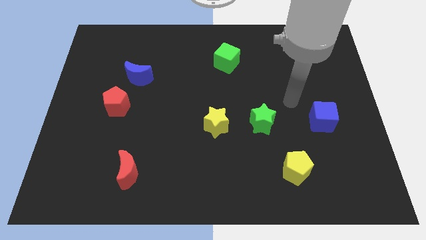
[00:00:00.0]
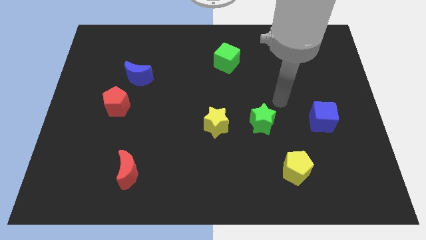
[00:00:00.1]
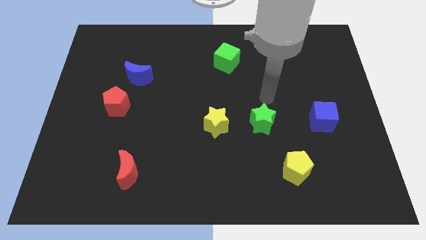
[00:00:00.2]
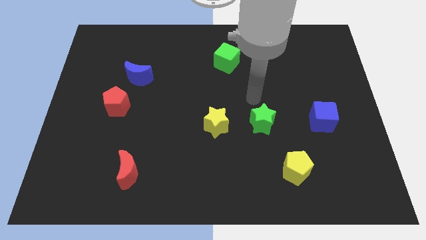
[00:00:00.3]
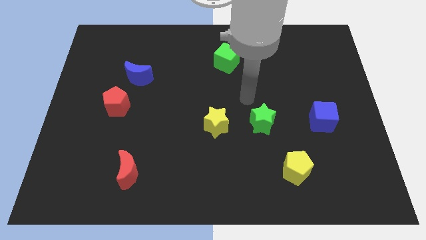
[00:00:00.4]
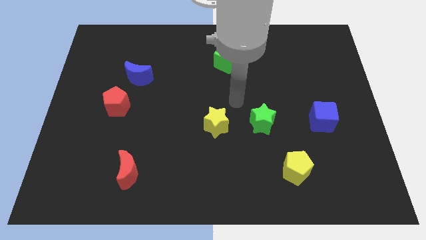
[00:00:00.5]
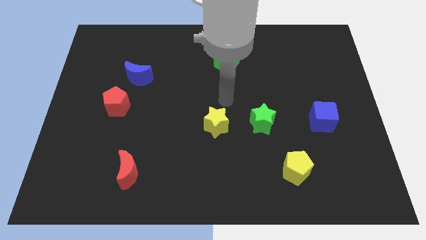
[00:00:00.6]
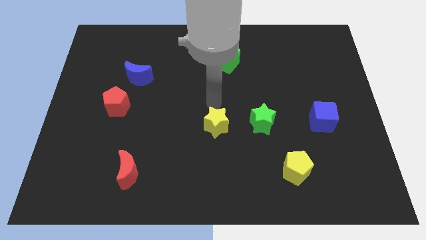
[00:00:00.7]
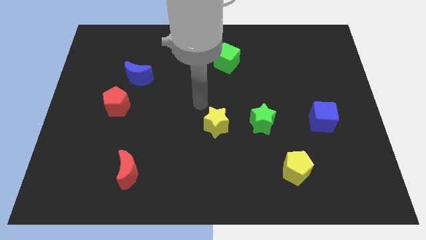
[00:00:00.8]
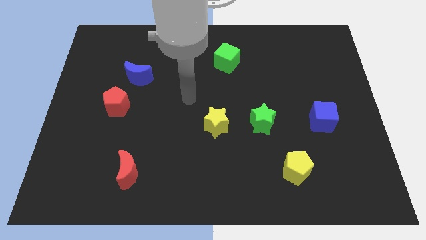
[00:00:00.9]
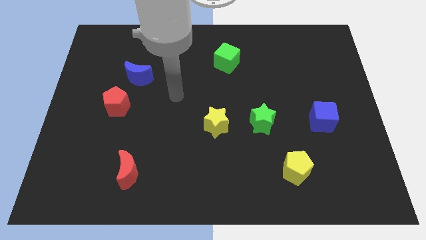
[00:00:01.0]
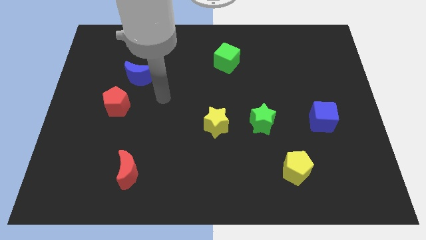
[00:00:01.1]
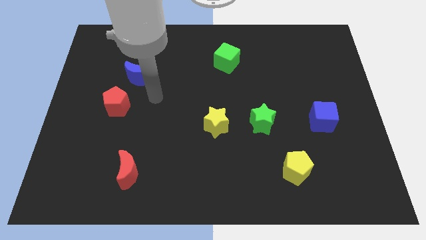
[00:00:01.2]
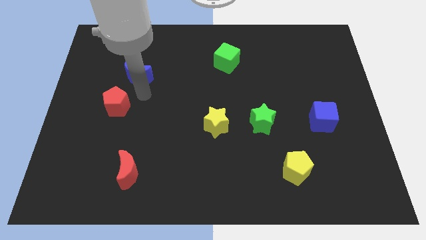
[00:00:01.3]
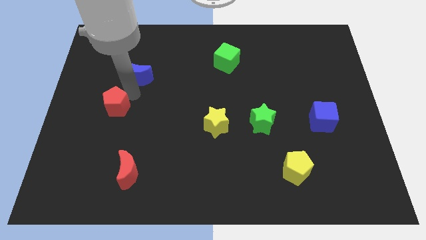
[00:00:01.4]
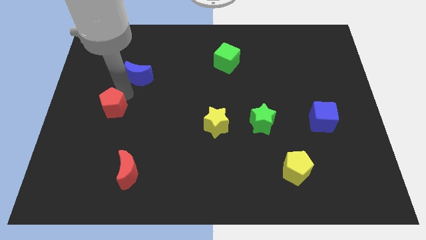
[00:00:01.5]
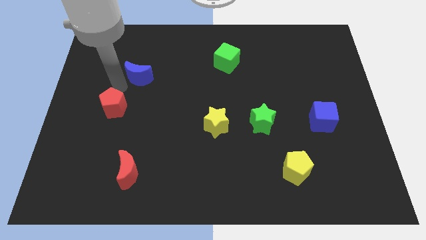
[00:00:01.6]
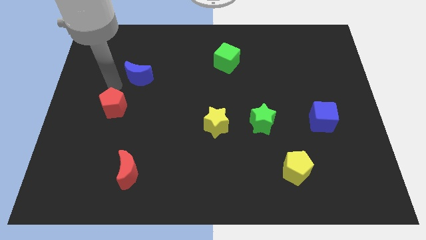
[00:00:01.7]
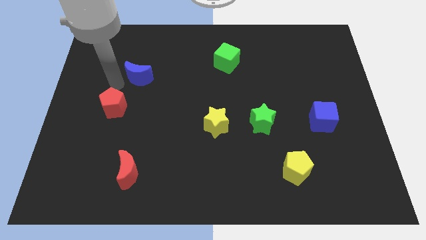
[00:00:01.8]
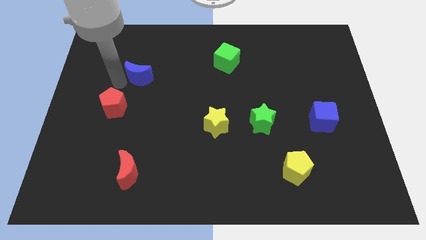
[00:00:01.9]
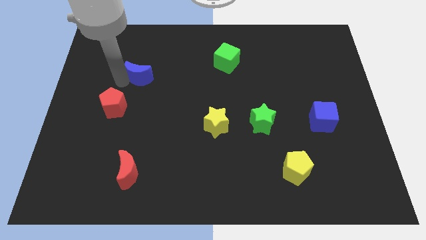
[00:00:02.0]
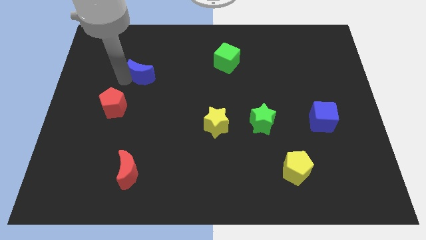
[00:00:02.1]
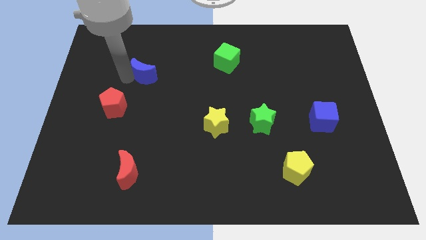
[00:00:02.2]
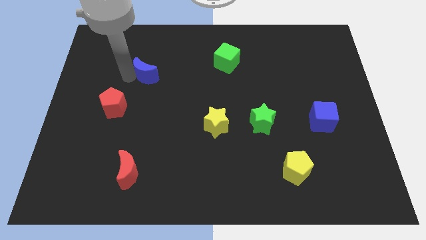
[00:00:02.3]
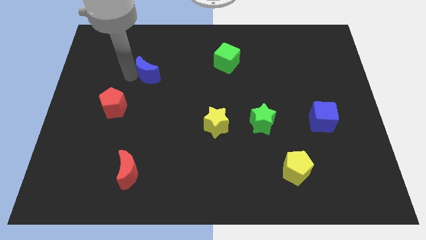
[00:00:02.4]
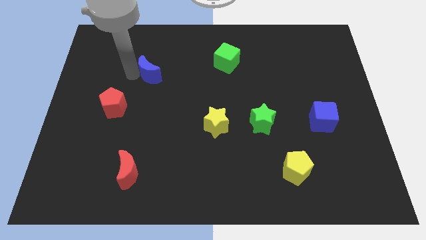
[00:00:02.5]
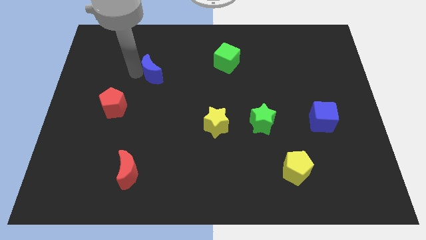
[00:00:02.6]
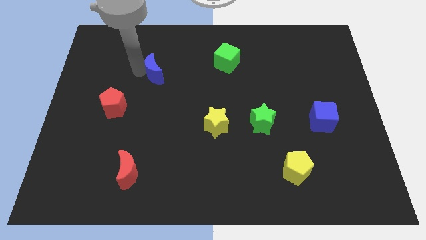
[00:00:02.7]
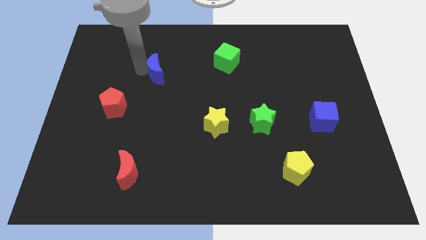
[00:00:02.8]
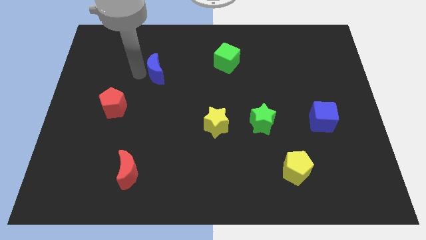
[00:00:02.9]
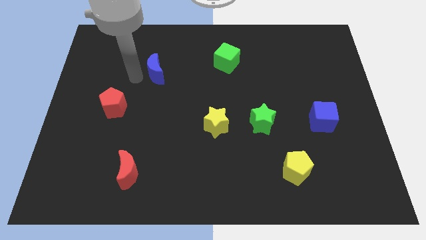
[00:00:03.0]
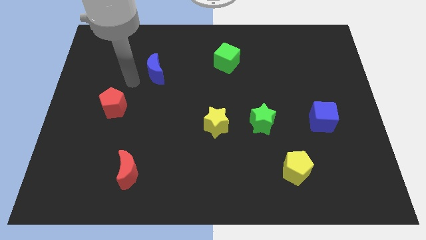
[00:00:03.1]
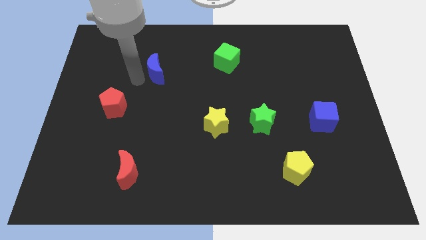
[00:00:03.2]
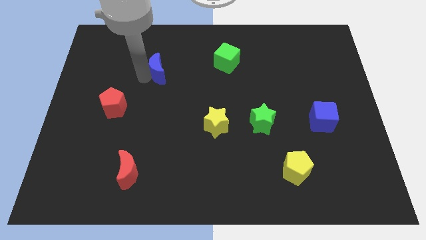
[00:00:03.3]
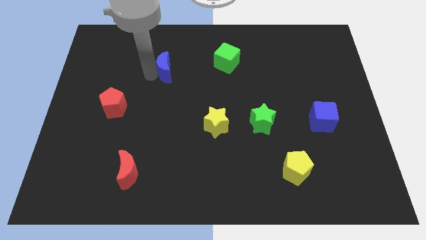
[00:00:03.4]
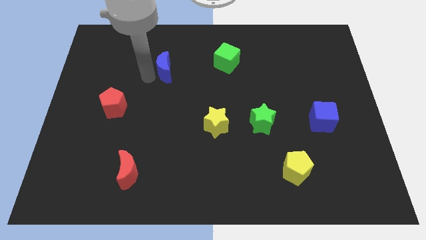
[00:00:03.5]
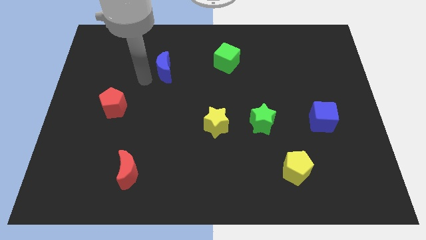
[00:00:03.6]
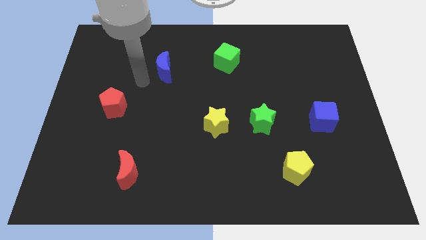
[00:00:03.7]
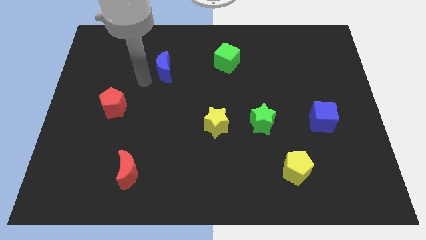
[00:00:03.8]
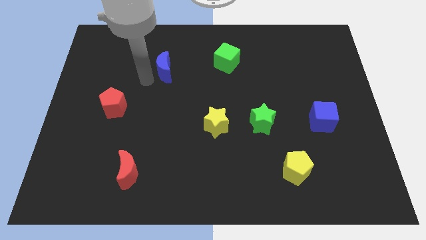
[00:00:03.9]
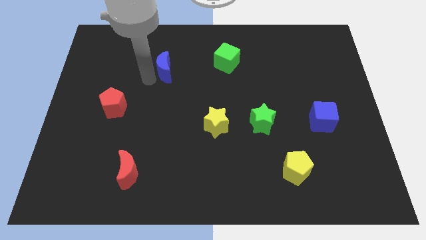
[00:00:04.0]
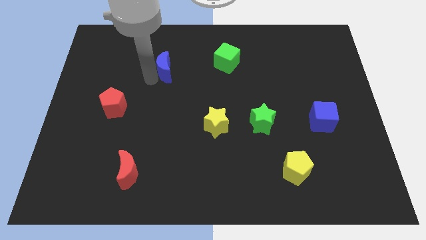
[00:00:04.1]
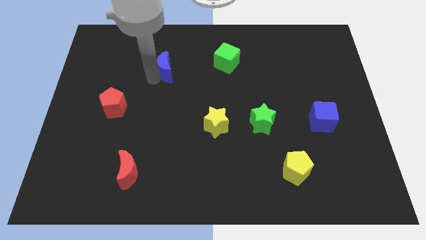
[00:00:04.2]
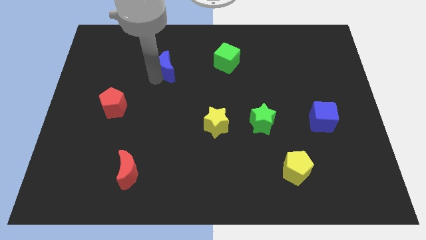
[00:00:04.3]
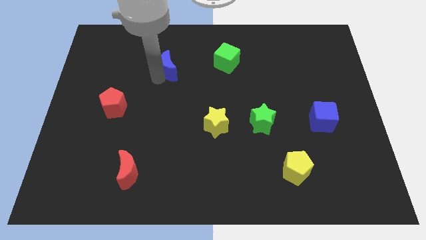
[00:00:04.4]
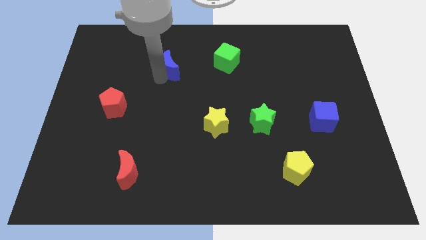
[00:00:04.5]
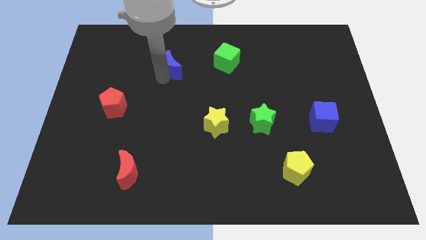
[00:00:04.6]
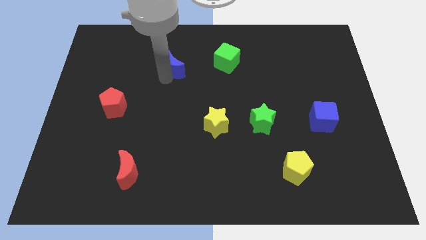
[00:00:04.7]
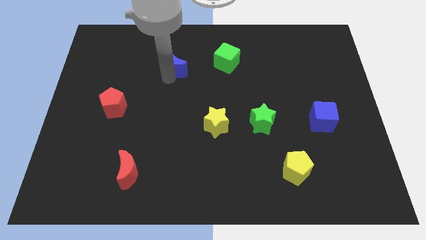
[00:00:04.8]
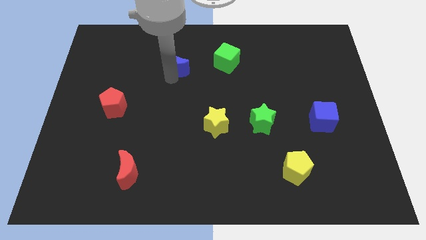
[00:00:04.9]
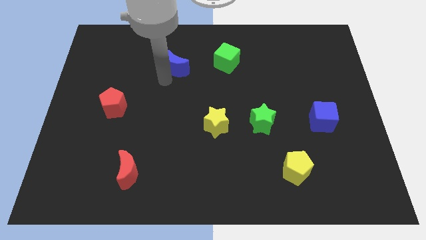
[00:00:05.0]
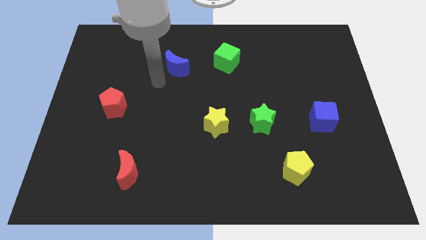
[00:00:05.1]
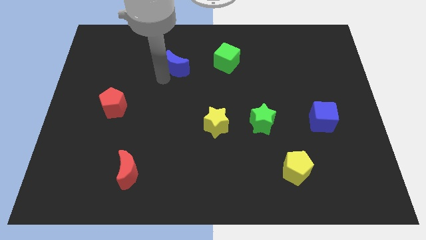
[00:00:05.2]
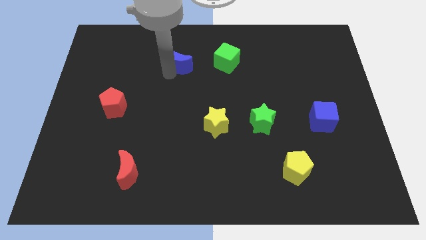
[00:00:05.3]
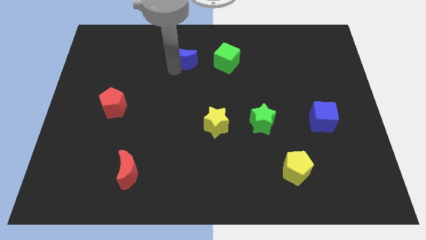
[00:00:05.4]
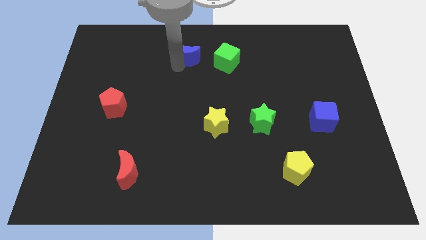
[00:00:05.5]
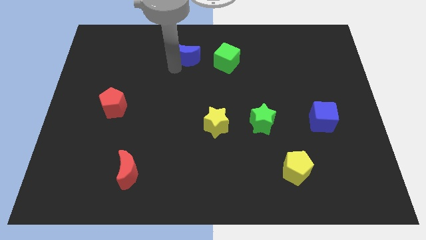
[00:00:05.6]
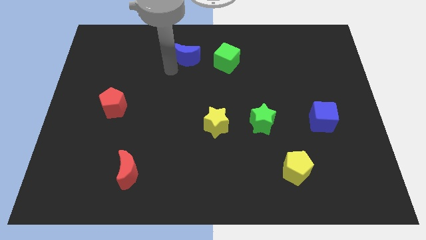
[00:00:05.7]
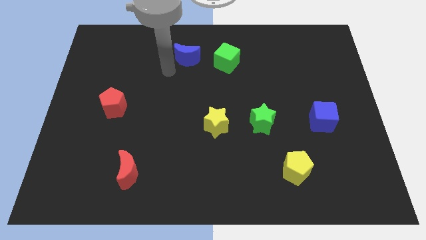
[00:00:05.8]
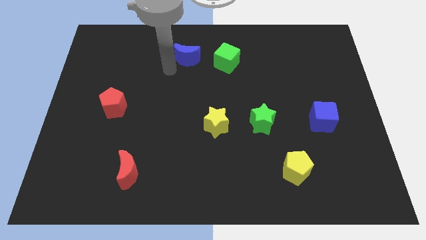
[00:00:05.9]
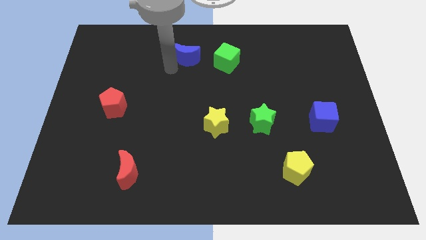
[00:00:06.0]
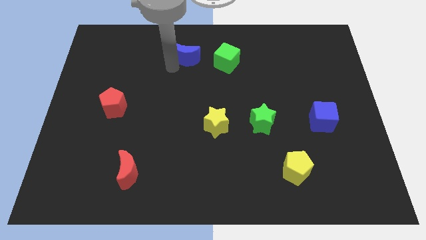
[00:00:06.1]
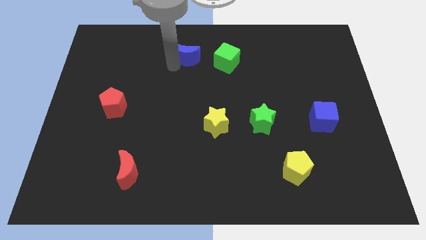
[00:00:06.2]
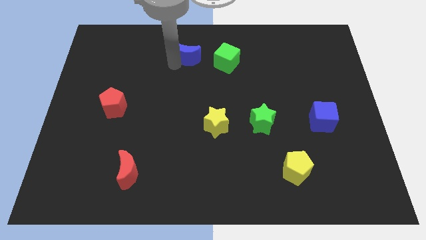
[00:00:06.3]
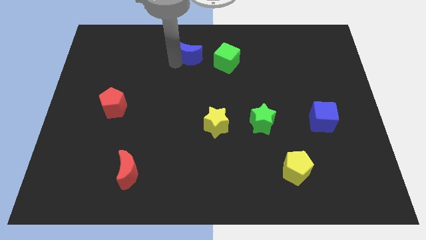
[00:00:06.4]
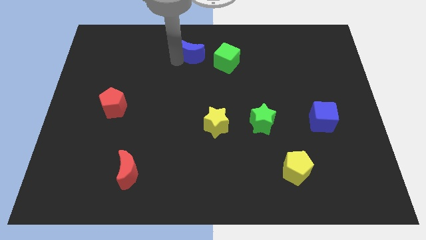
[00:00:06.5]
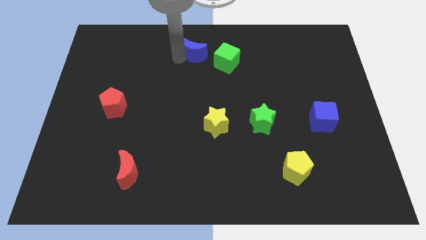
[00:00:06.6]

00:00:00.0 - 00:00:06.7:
slide the blue moon to the towards your base

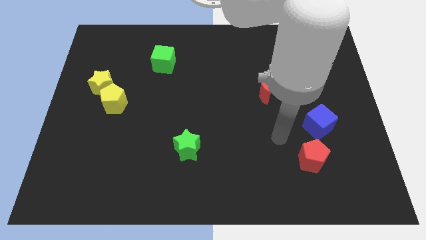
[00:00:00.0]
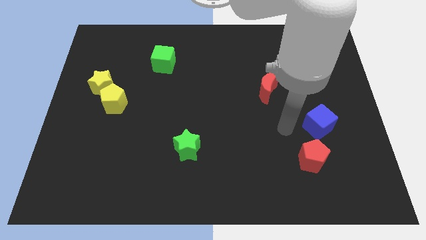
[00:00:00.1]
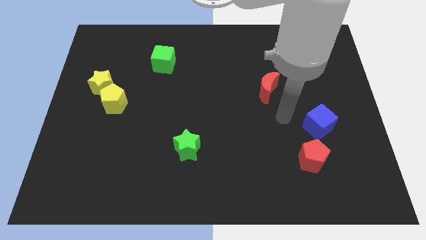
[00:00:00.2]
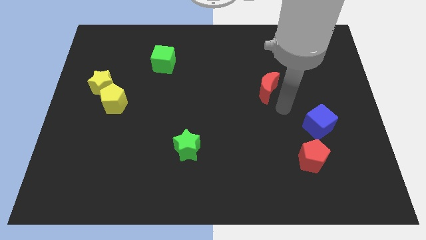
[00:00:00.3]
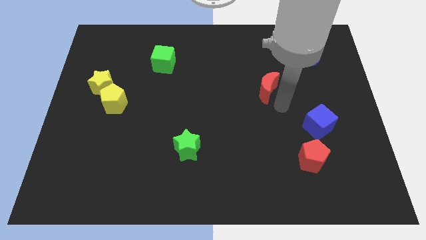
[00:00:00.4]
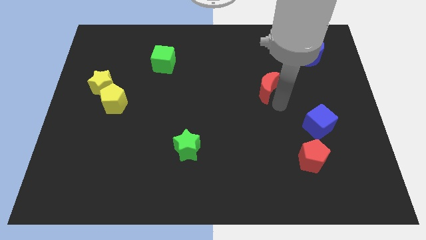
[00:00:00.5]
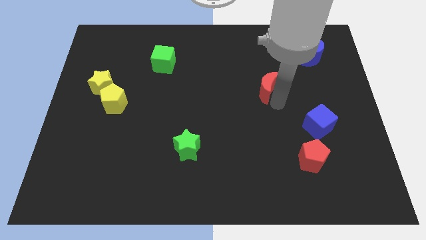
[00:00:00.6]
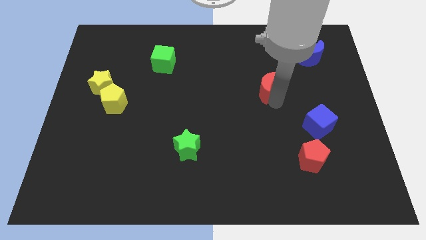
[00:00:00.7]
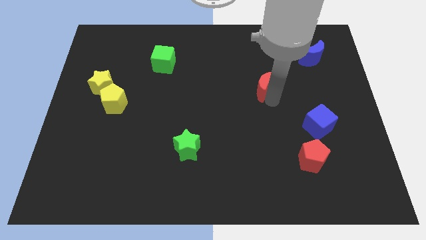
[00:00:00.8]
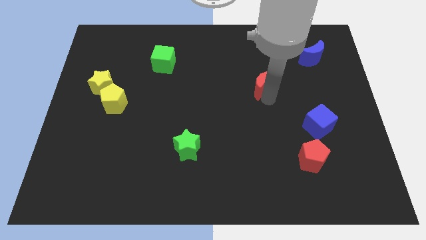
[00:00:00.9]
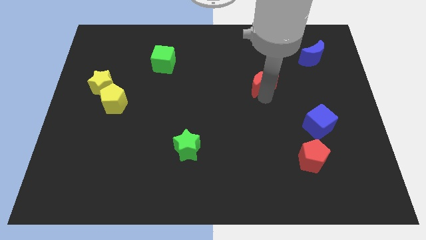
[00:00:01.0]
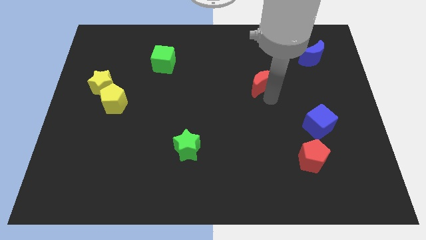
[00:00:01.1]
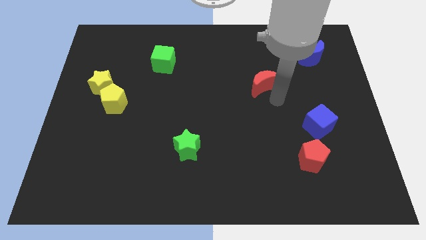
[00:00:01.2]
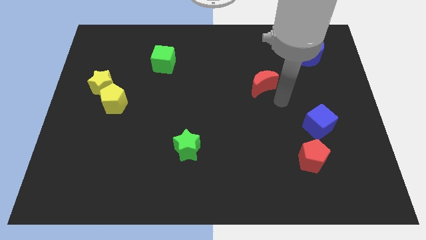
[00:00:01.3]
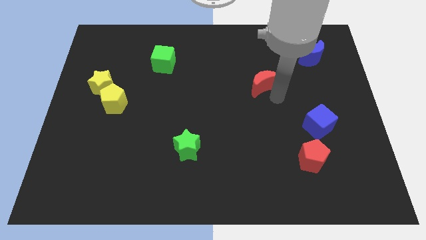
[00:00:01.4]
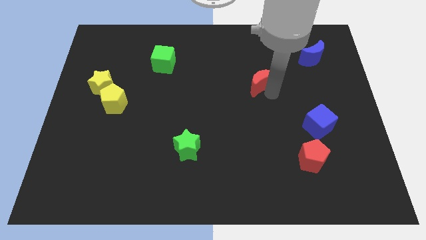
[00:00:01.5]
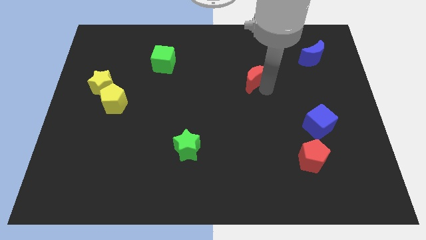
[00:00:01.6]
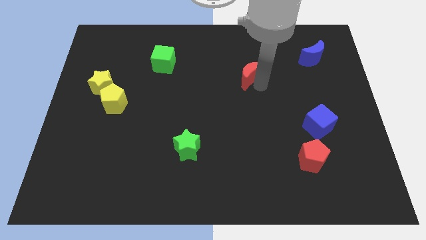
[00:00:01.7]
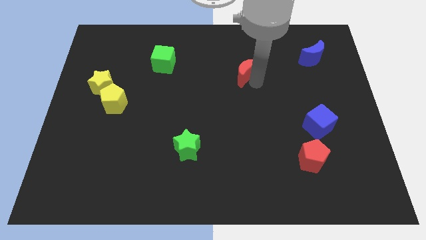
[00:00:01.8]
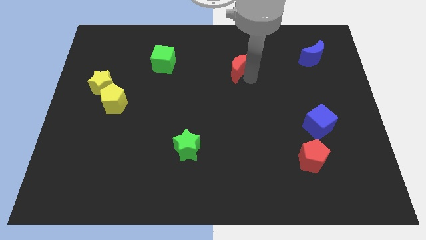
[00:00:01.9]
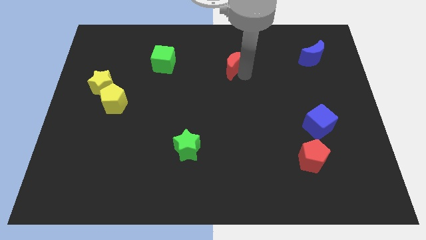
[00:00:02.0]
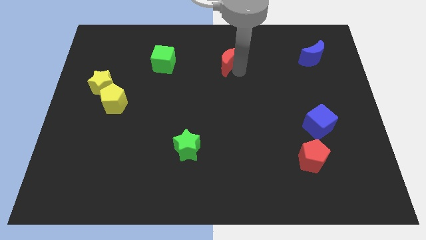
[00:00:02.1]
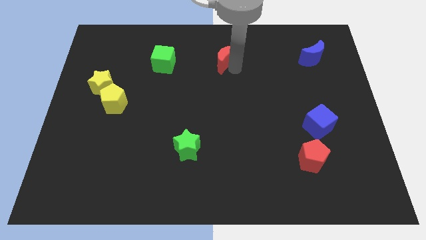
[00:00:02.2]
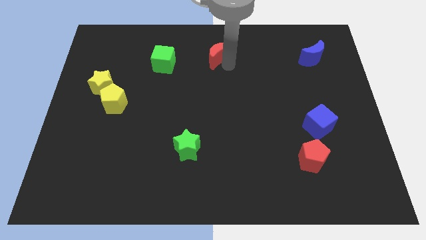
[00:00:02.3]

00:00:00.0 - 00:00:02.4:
move the red moon to the top side
